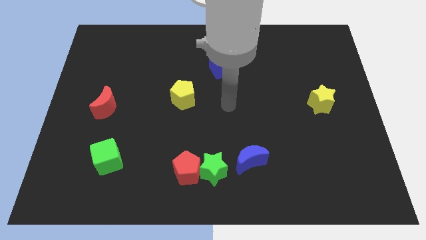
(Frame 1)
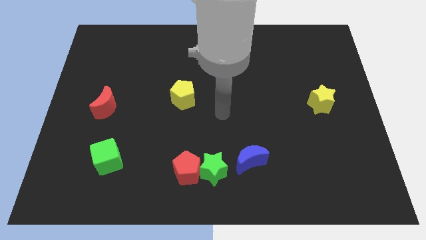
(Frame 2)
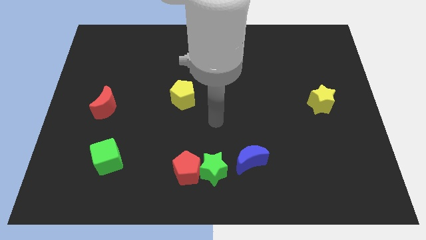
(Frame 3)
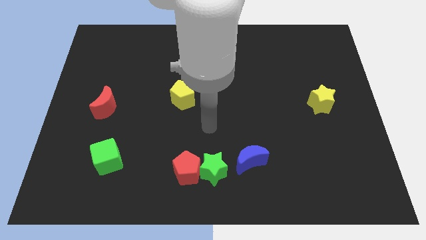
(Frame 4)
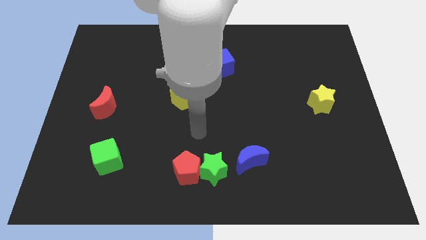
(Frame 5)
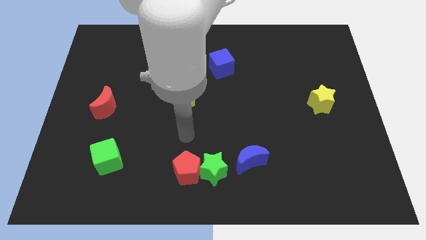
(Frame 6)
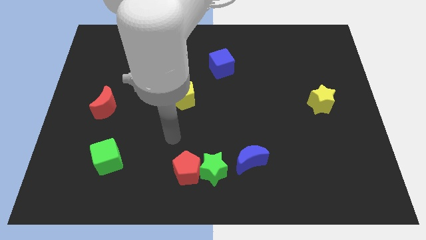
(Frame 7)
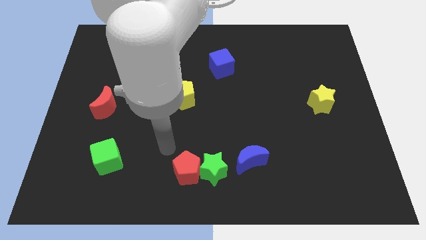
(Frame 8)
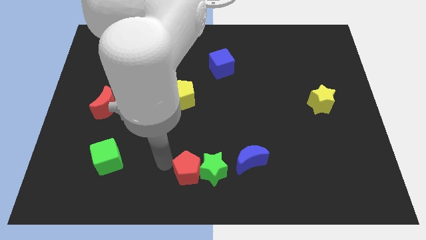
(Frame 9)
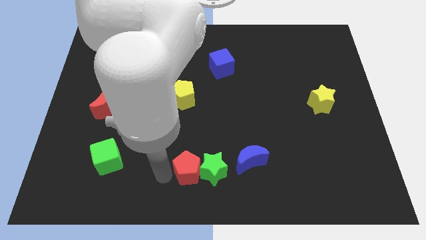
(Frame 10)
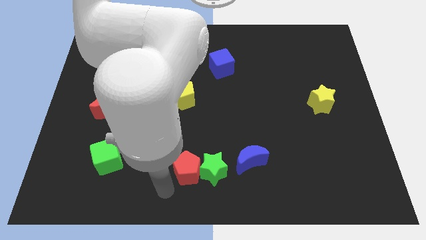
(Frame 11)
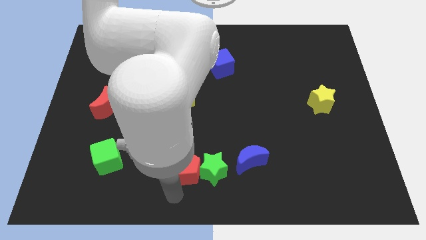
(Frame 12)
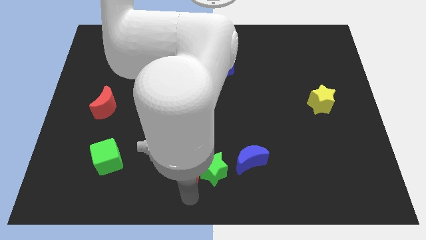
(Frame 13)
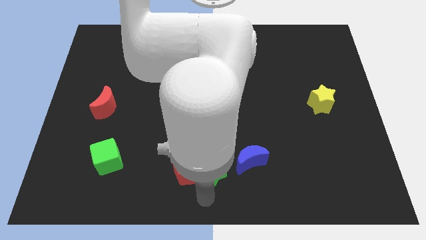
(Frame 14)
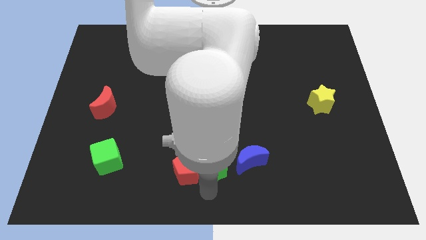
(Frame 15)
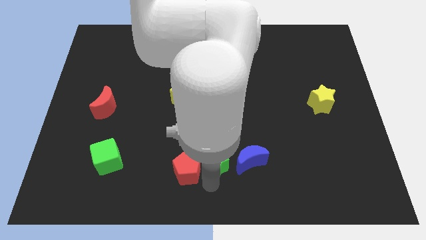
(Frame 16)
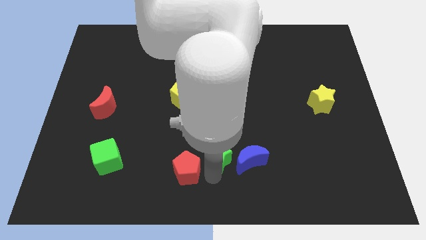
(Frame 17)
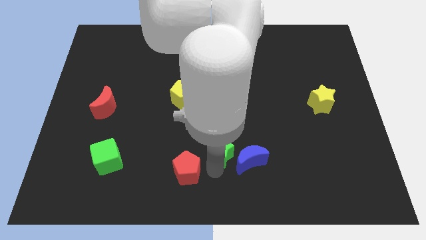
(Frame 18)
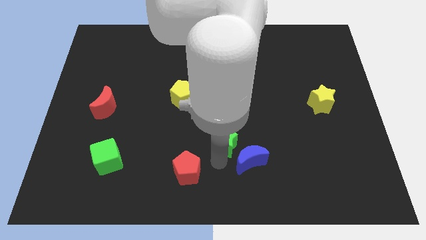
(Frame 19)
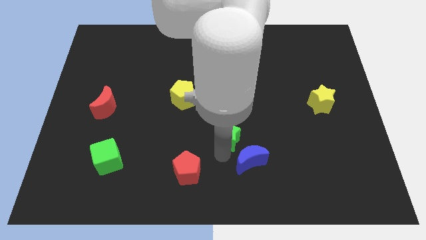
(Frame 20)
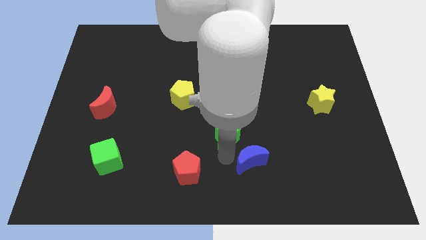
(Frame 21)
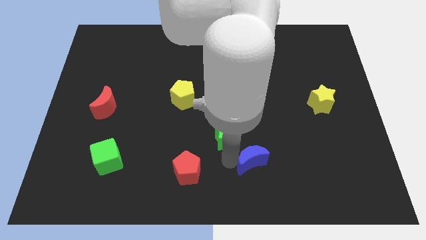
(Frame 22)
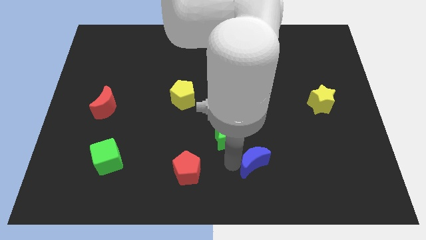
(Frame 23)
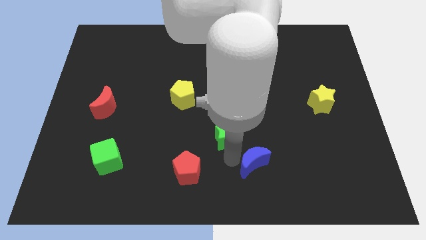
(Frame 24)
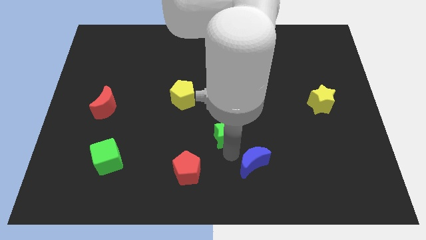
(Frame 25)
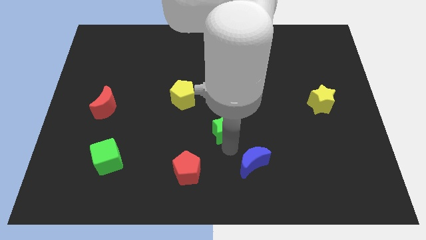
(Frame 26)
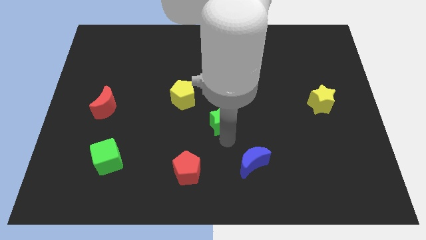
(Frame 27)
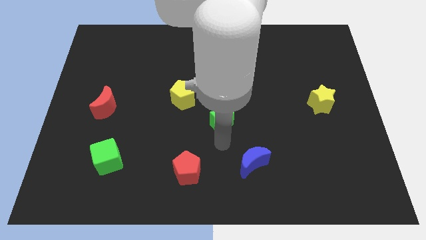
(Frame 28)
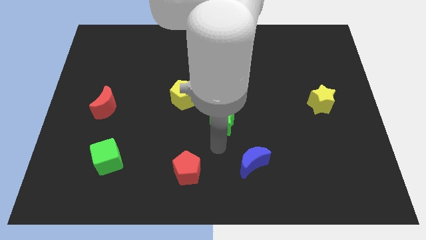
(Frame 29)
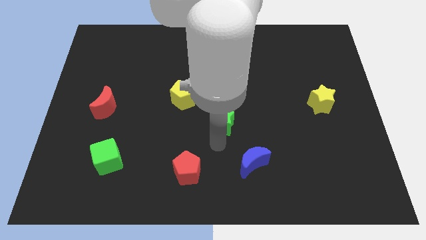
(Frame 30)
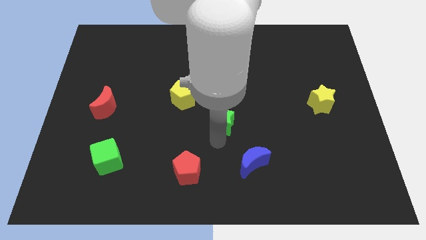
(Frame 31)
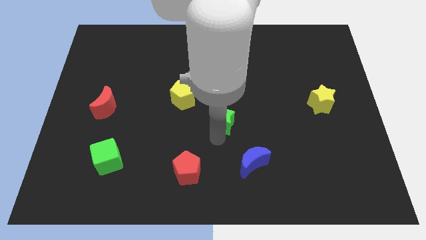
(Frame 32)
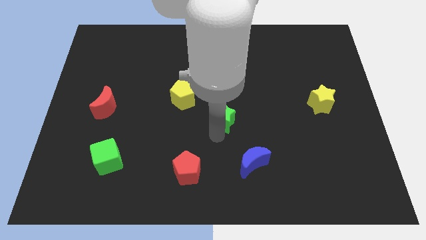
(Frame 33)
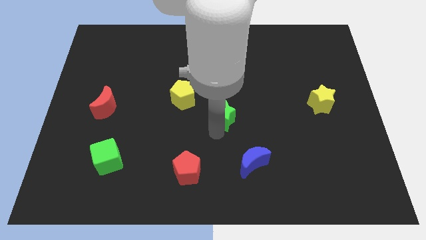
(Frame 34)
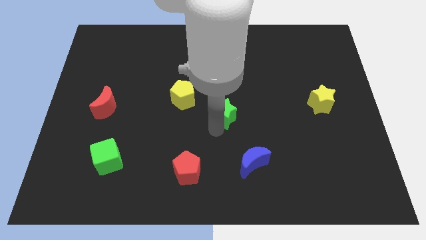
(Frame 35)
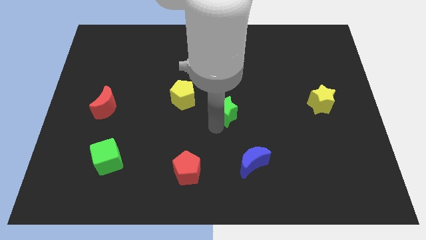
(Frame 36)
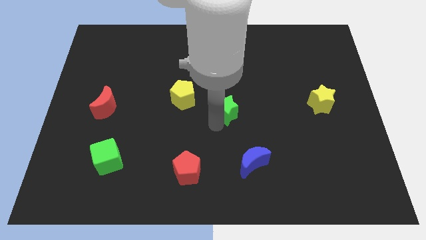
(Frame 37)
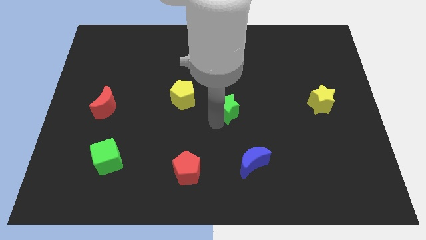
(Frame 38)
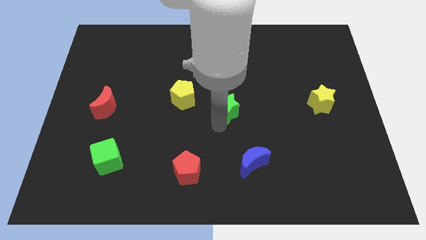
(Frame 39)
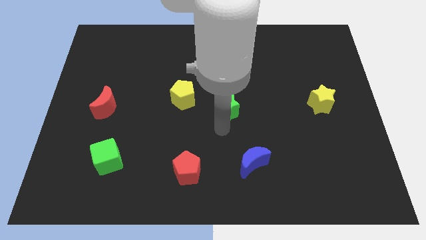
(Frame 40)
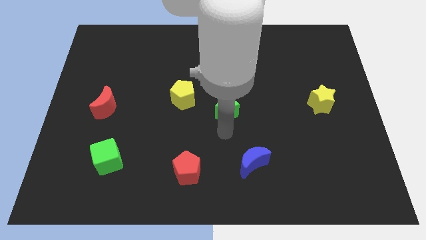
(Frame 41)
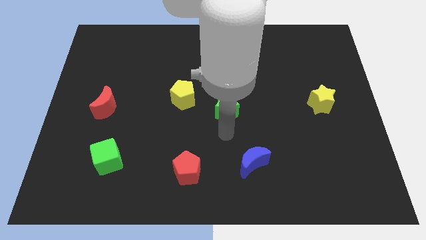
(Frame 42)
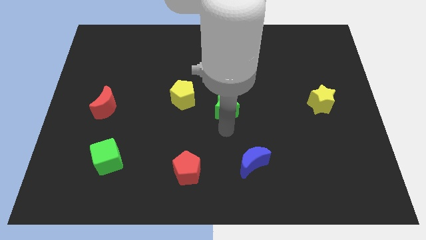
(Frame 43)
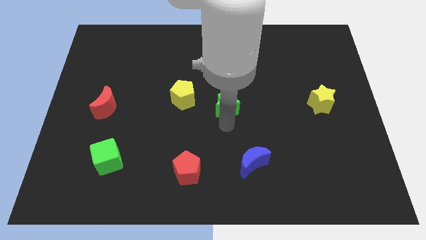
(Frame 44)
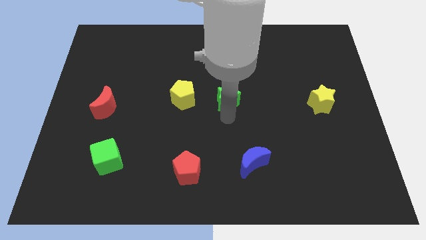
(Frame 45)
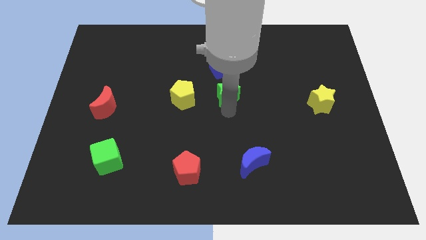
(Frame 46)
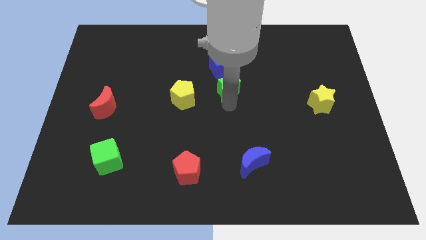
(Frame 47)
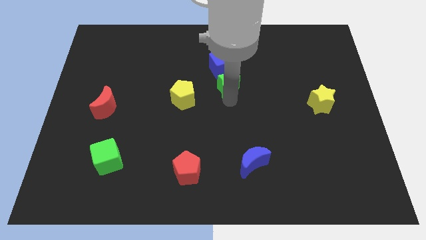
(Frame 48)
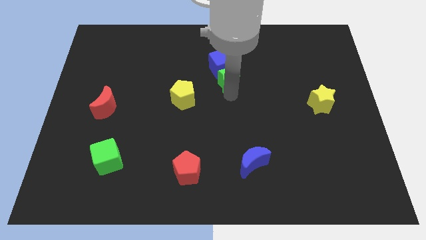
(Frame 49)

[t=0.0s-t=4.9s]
put the green star next to the blue cube

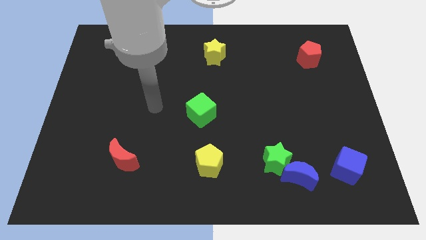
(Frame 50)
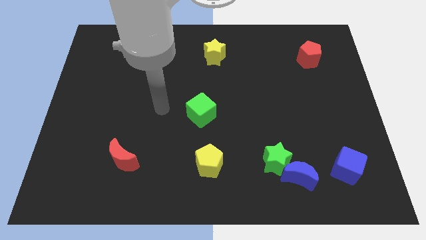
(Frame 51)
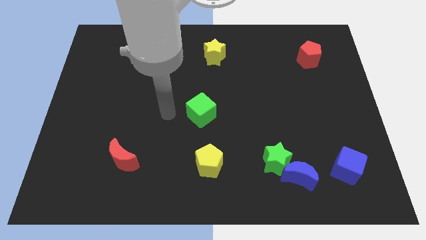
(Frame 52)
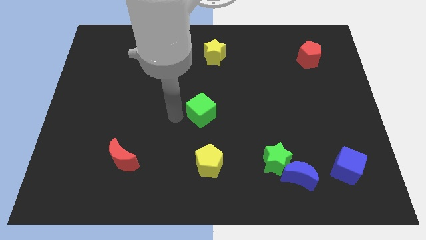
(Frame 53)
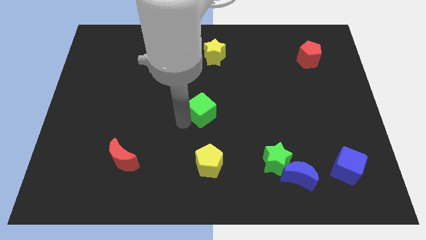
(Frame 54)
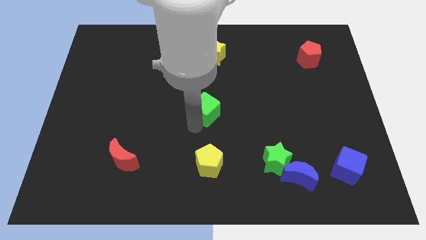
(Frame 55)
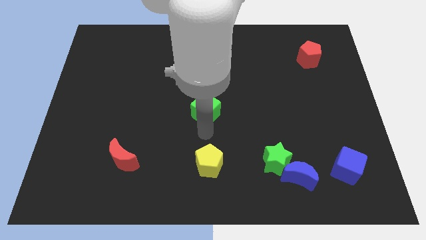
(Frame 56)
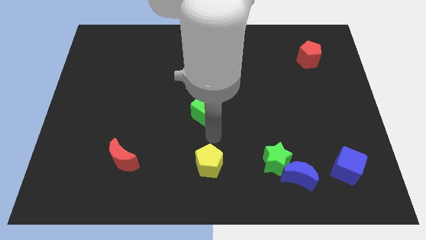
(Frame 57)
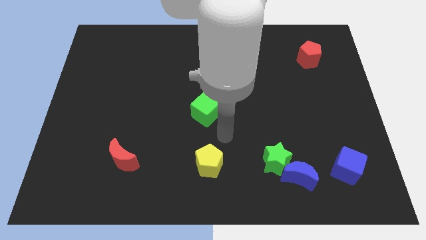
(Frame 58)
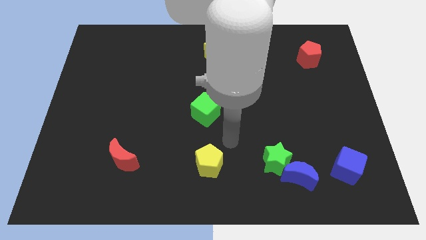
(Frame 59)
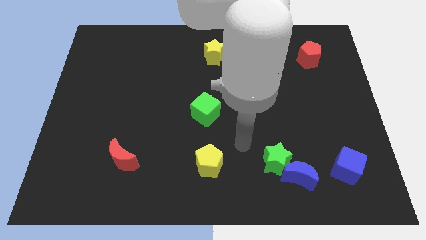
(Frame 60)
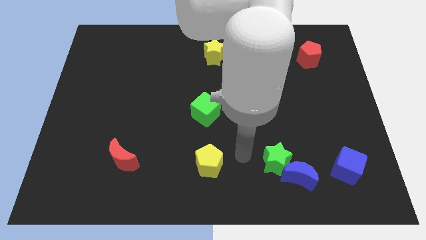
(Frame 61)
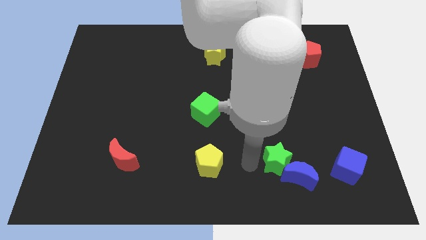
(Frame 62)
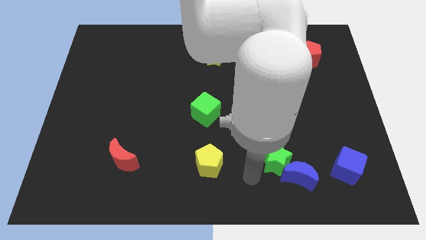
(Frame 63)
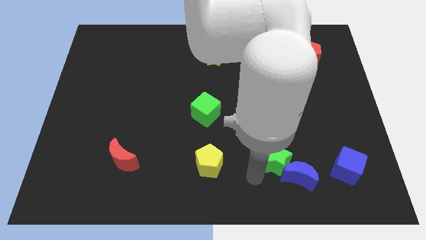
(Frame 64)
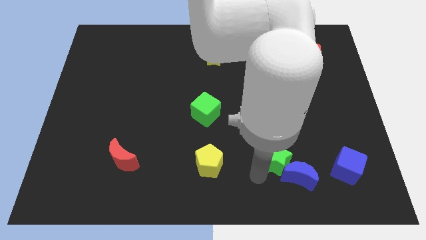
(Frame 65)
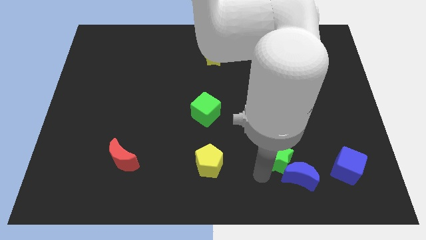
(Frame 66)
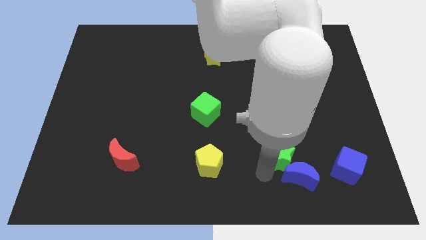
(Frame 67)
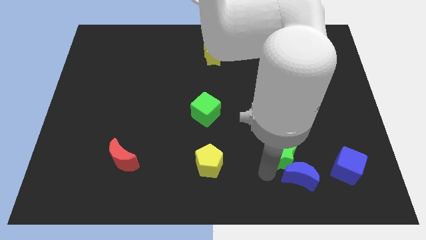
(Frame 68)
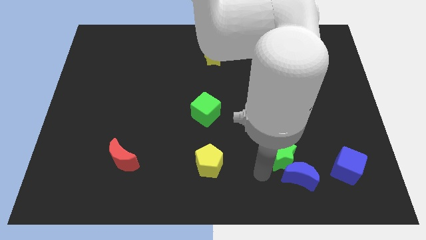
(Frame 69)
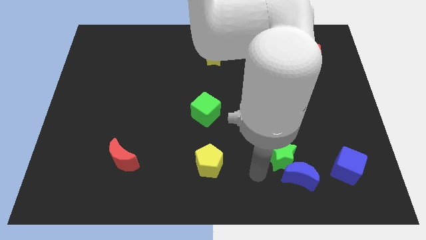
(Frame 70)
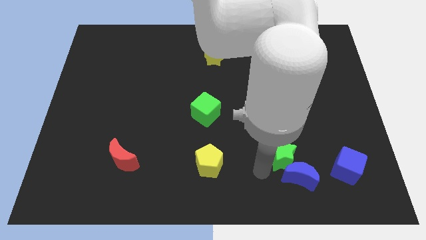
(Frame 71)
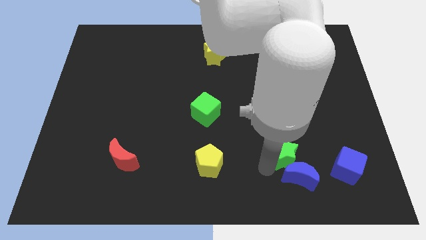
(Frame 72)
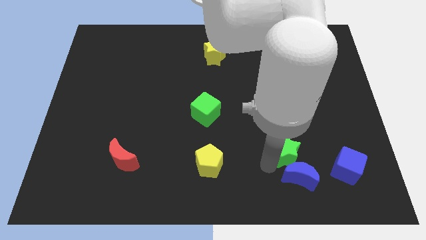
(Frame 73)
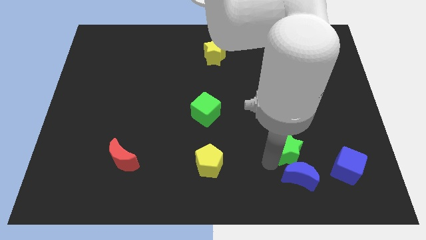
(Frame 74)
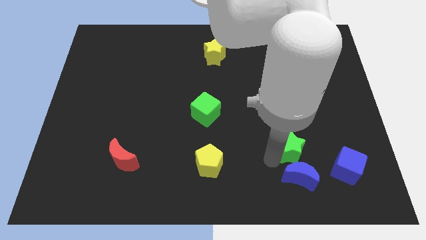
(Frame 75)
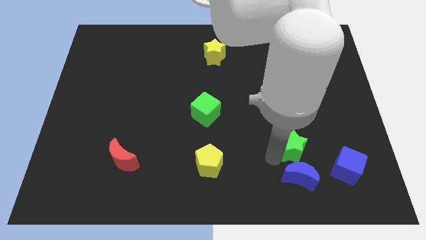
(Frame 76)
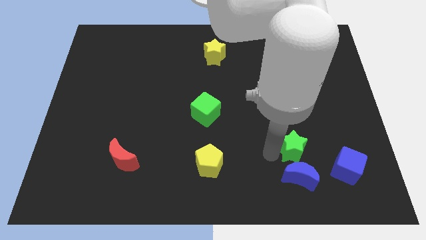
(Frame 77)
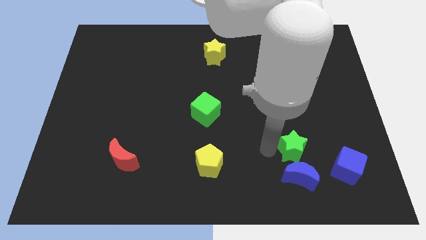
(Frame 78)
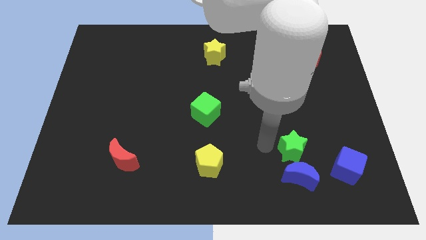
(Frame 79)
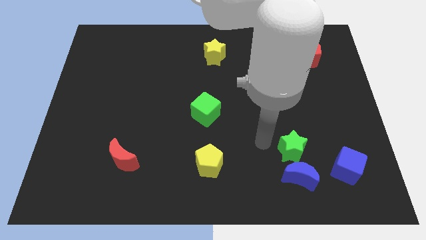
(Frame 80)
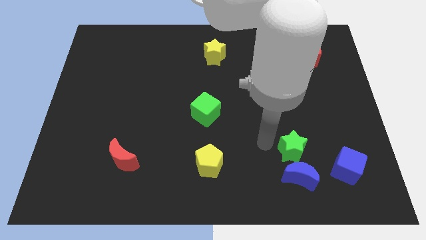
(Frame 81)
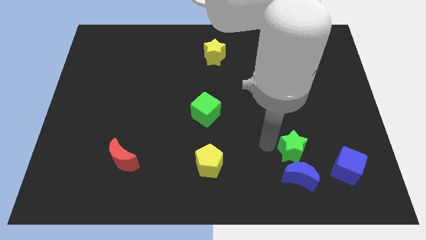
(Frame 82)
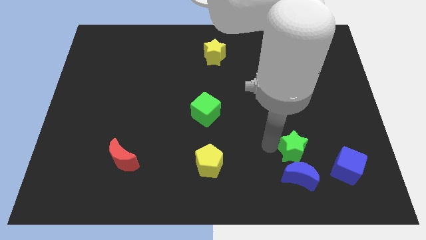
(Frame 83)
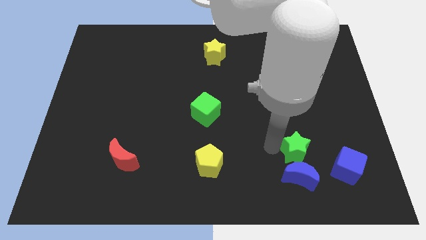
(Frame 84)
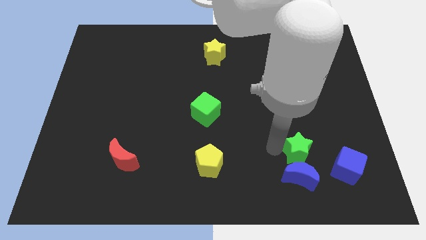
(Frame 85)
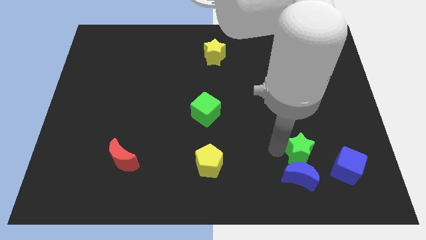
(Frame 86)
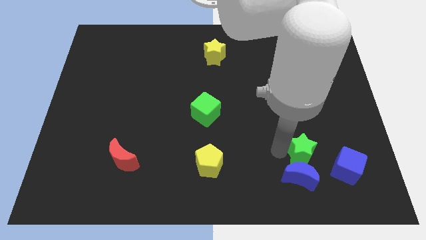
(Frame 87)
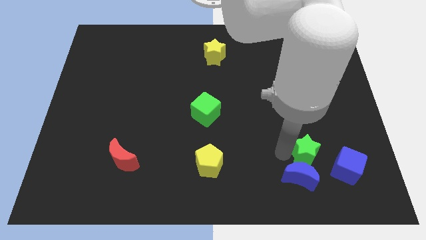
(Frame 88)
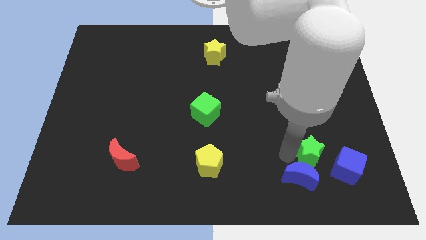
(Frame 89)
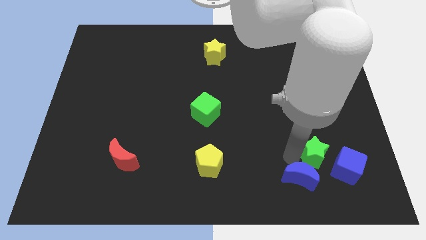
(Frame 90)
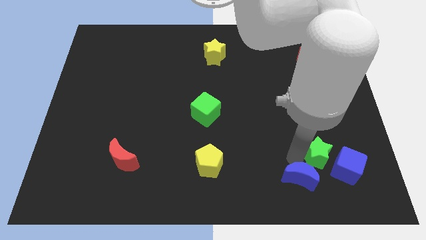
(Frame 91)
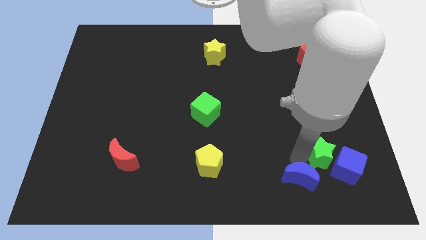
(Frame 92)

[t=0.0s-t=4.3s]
move the green star to the blue cube
